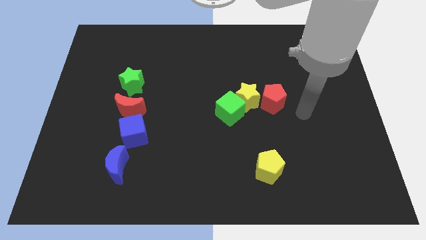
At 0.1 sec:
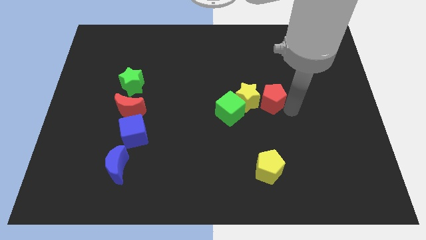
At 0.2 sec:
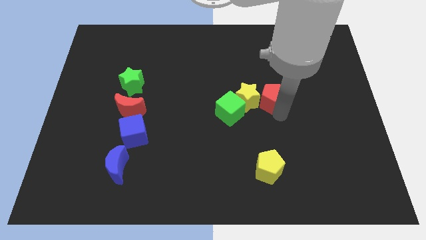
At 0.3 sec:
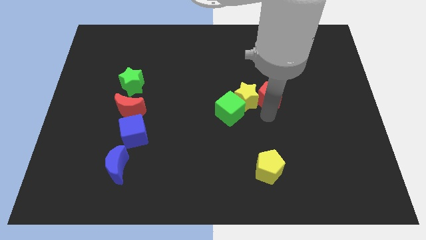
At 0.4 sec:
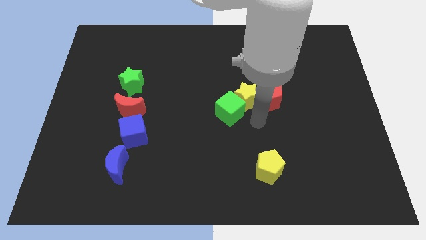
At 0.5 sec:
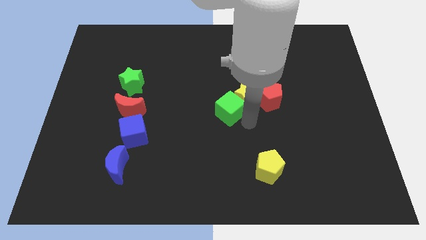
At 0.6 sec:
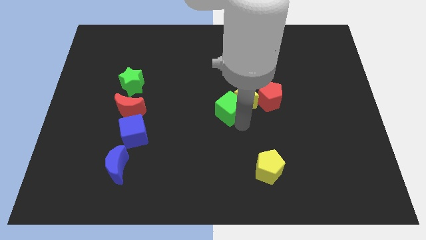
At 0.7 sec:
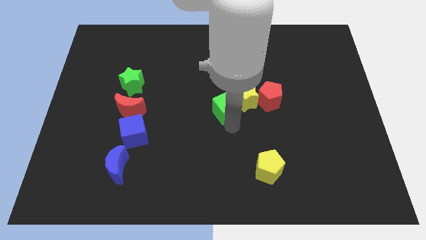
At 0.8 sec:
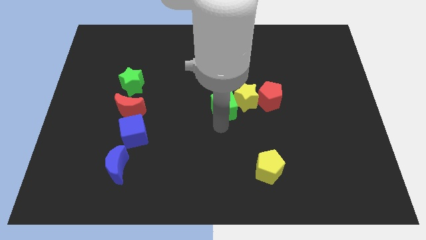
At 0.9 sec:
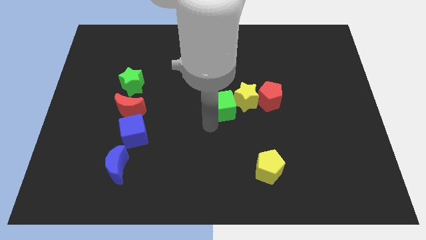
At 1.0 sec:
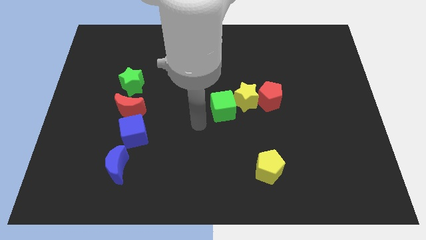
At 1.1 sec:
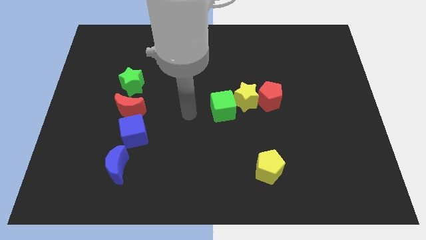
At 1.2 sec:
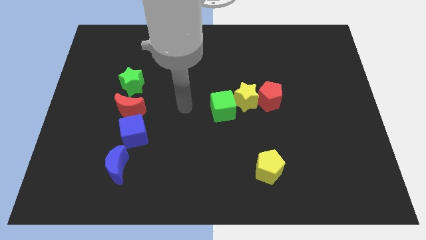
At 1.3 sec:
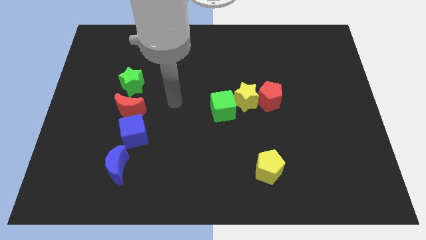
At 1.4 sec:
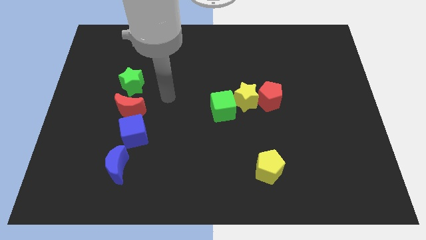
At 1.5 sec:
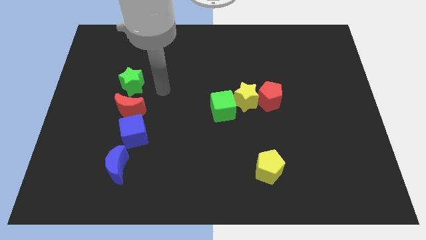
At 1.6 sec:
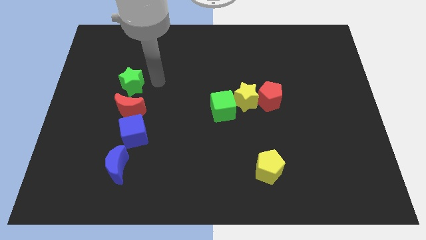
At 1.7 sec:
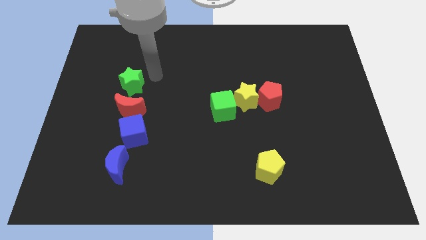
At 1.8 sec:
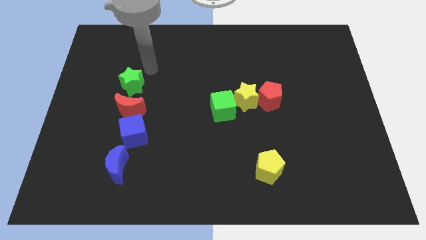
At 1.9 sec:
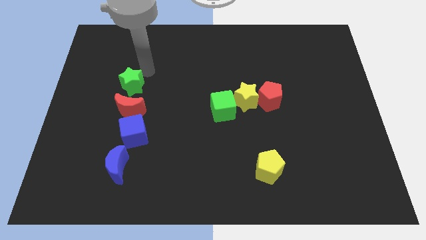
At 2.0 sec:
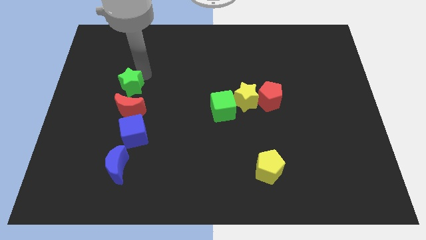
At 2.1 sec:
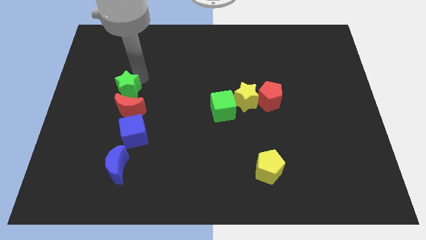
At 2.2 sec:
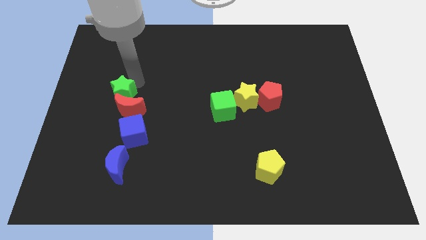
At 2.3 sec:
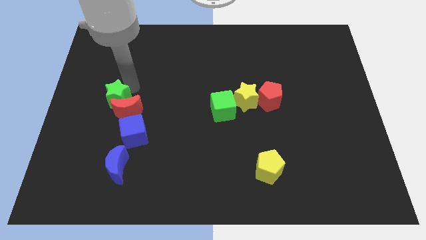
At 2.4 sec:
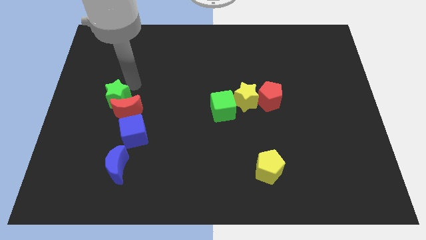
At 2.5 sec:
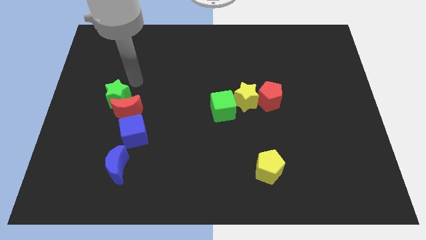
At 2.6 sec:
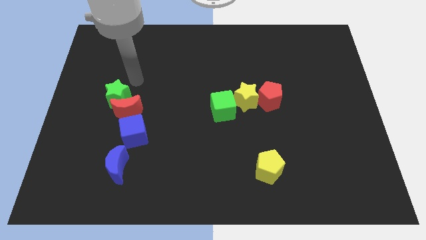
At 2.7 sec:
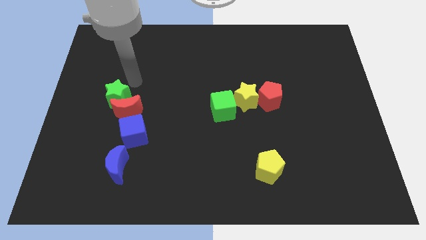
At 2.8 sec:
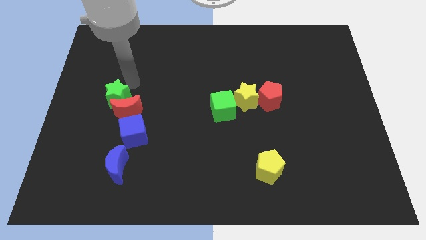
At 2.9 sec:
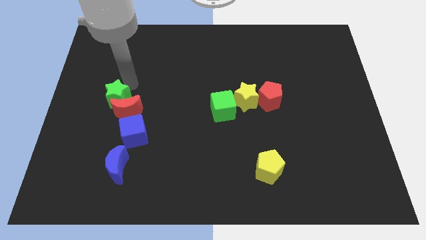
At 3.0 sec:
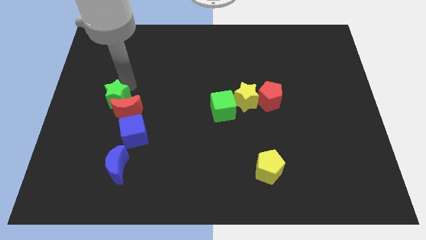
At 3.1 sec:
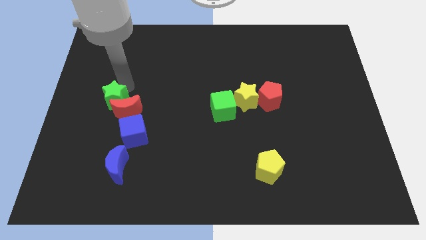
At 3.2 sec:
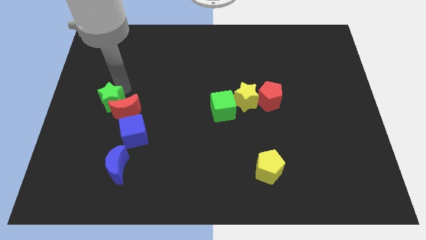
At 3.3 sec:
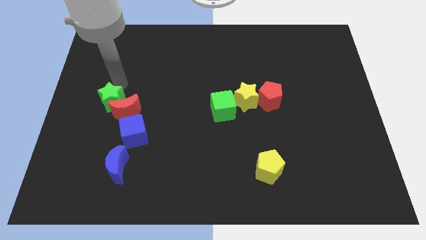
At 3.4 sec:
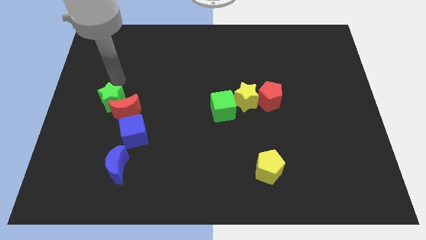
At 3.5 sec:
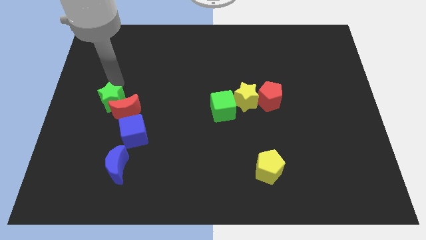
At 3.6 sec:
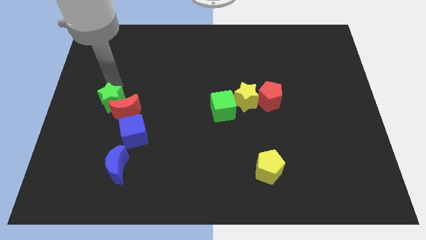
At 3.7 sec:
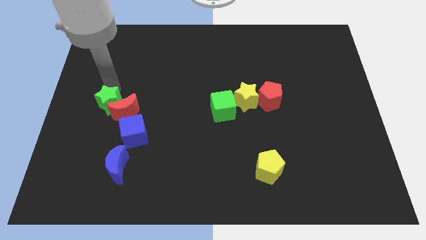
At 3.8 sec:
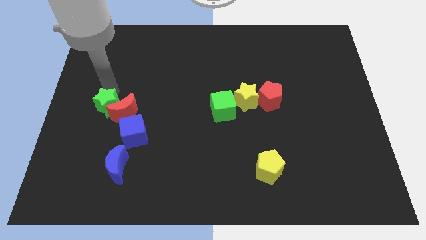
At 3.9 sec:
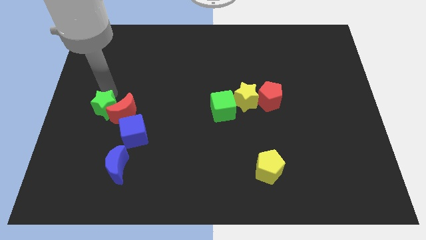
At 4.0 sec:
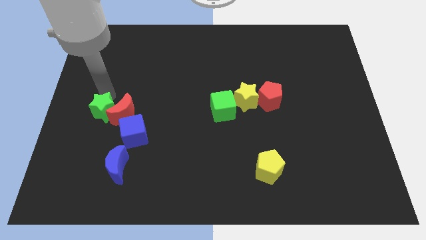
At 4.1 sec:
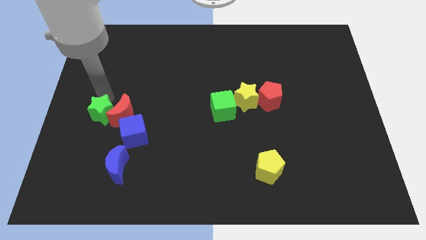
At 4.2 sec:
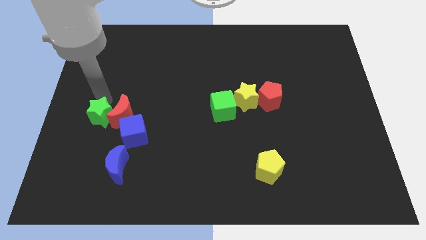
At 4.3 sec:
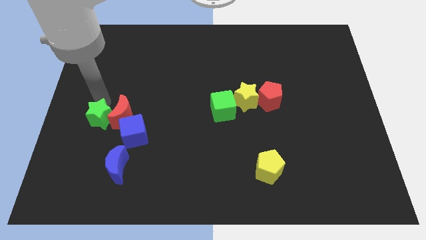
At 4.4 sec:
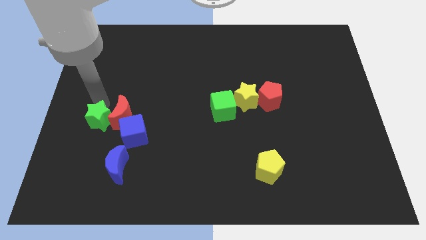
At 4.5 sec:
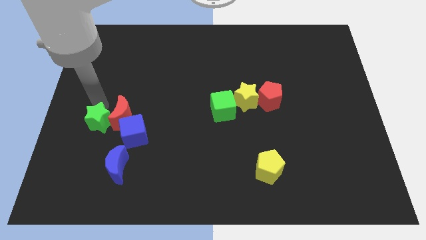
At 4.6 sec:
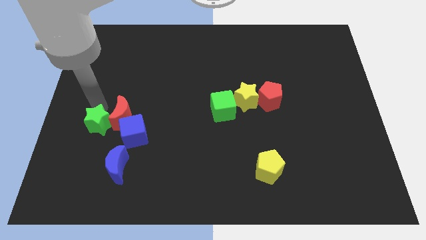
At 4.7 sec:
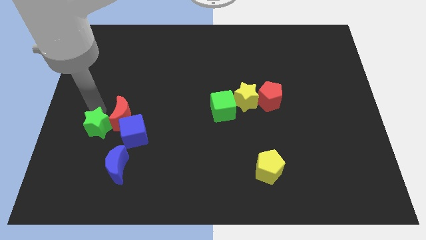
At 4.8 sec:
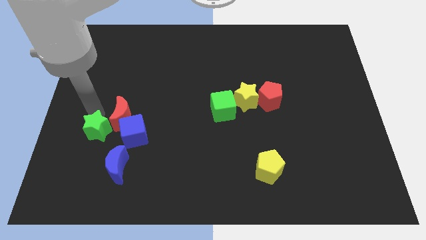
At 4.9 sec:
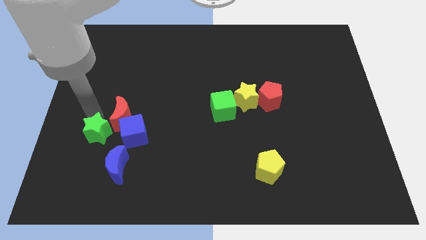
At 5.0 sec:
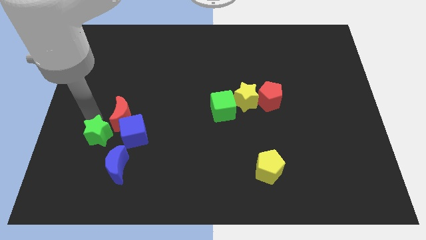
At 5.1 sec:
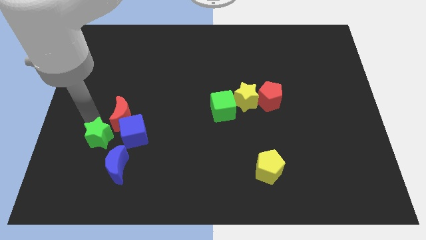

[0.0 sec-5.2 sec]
push the green star to the bottom left of the blue cube

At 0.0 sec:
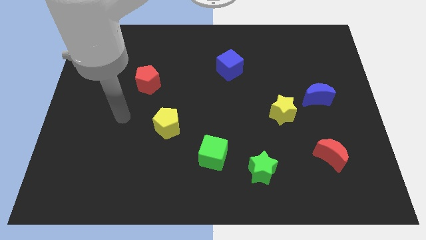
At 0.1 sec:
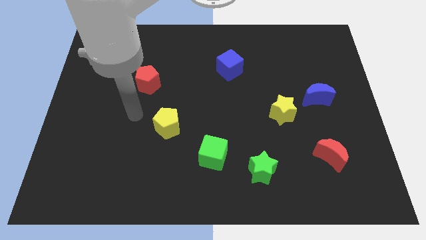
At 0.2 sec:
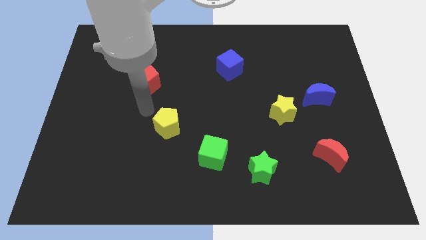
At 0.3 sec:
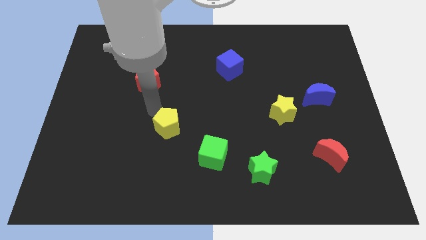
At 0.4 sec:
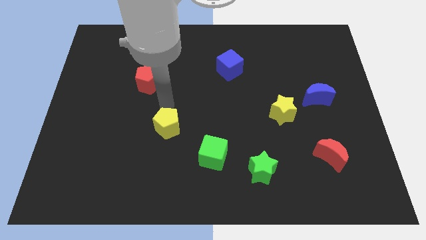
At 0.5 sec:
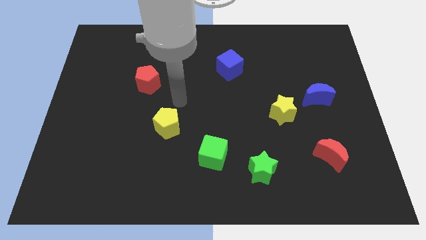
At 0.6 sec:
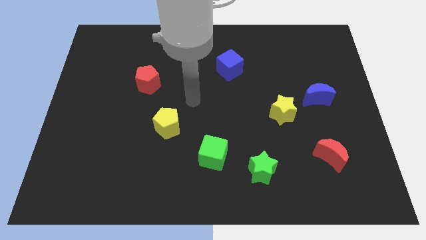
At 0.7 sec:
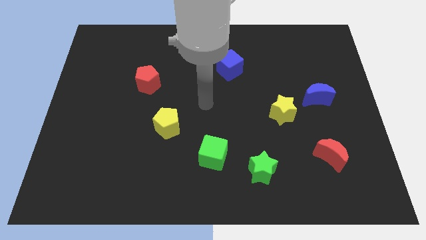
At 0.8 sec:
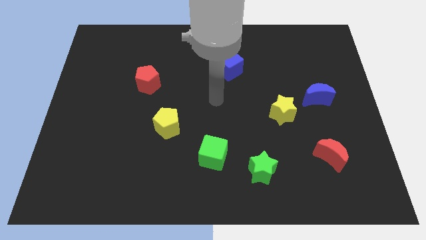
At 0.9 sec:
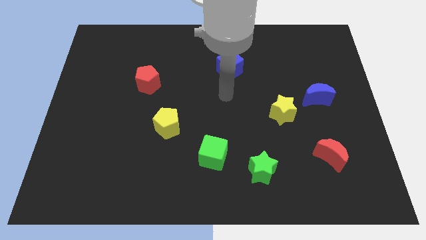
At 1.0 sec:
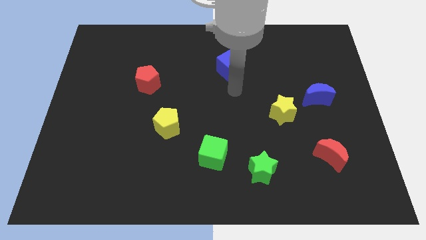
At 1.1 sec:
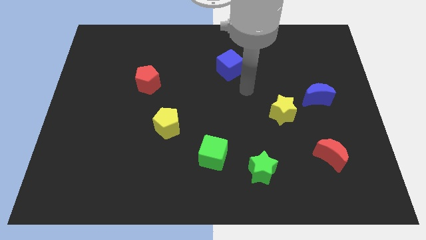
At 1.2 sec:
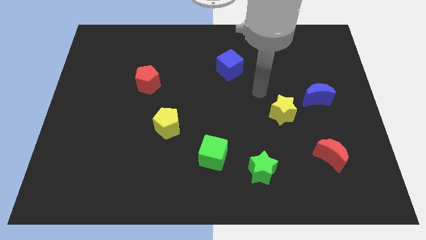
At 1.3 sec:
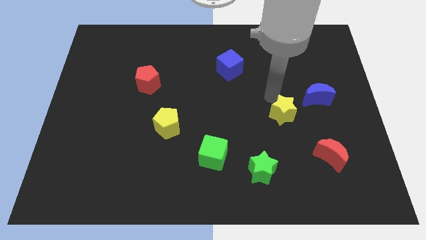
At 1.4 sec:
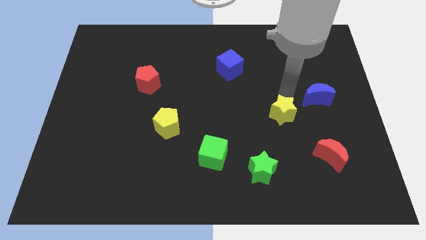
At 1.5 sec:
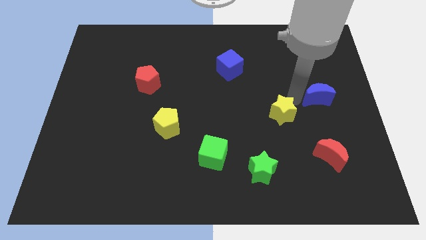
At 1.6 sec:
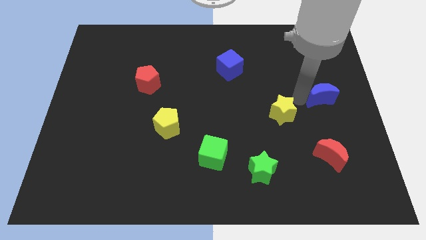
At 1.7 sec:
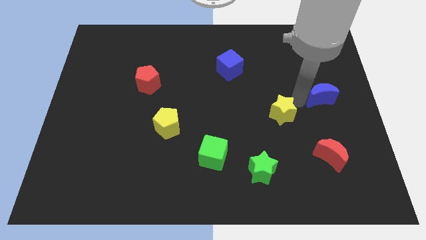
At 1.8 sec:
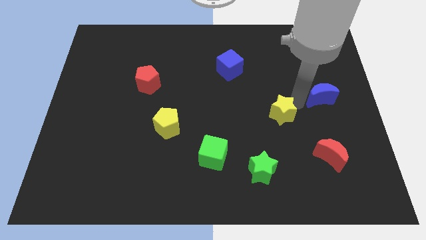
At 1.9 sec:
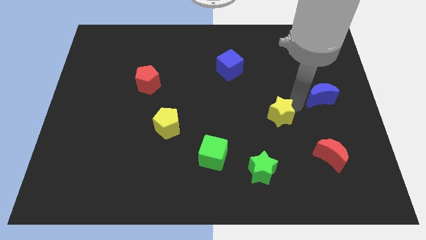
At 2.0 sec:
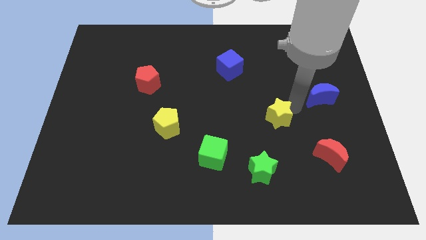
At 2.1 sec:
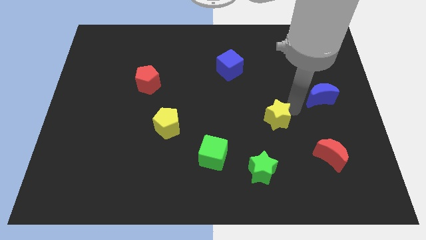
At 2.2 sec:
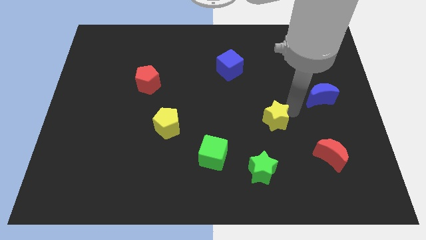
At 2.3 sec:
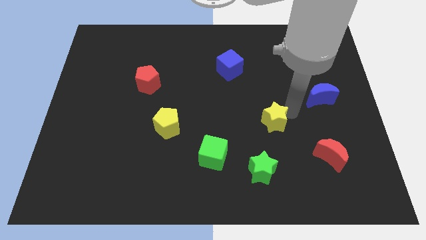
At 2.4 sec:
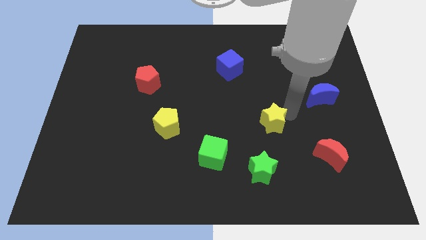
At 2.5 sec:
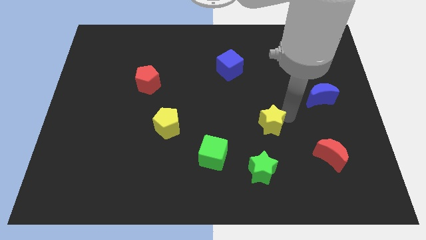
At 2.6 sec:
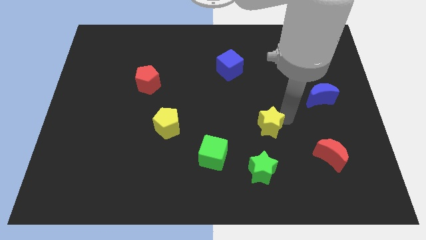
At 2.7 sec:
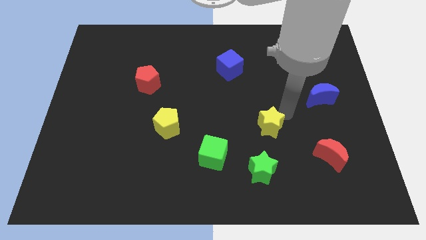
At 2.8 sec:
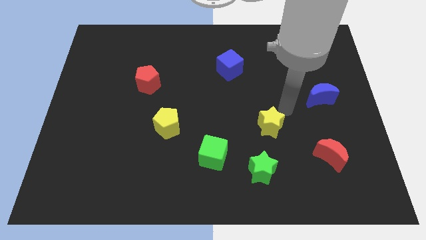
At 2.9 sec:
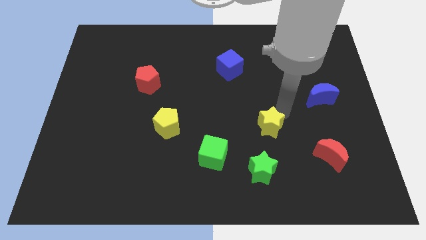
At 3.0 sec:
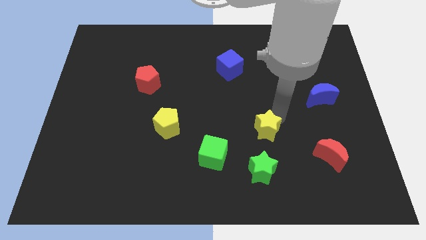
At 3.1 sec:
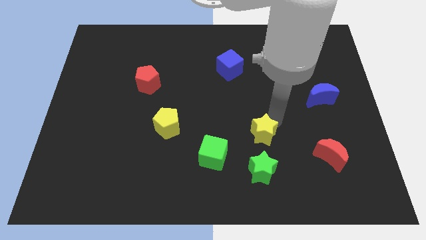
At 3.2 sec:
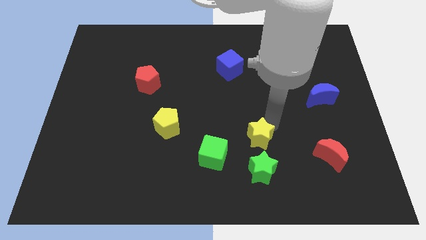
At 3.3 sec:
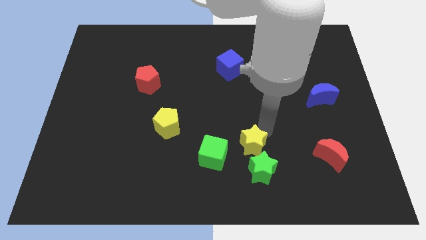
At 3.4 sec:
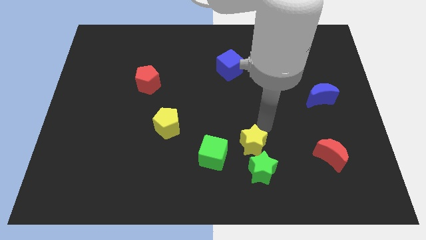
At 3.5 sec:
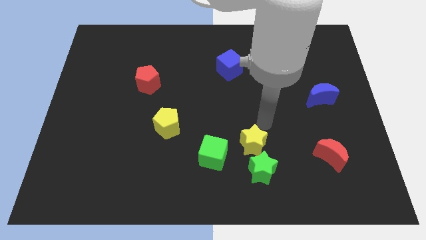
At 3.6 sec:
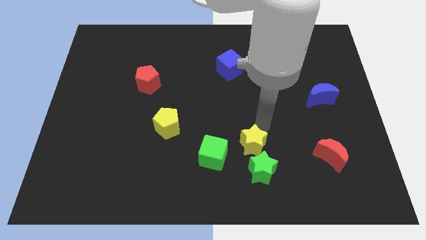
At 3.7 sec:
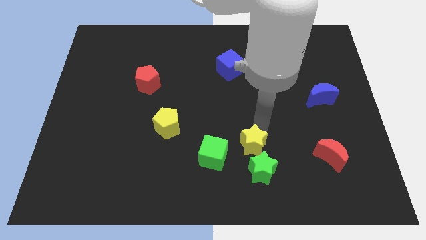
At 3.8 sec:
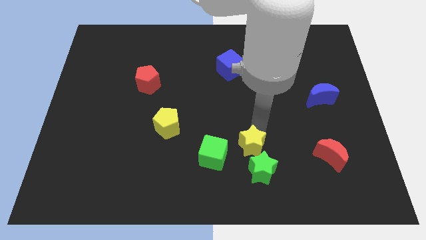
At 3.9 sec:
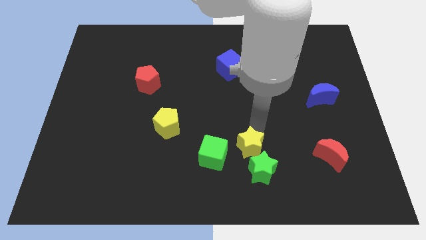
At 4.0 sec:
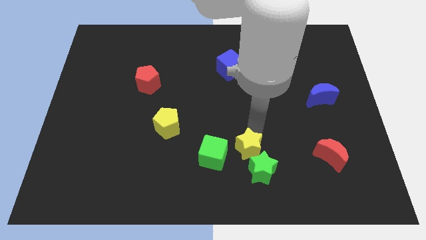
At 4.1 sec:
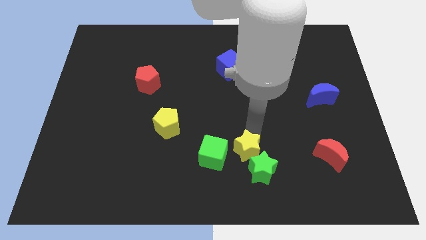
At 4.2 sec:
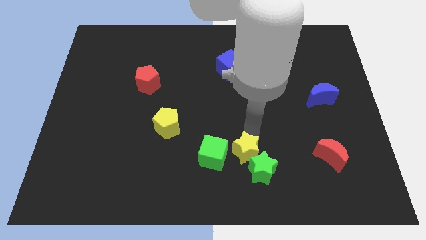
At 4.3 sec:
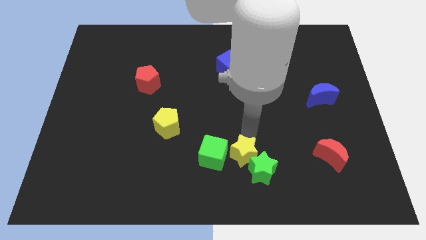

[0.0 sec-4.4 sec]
push the yellow star just left of the green star
